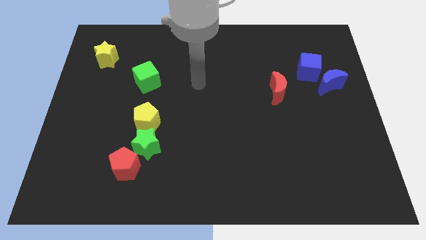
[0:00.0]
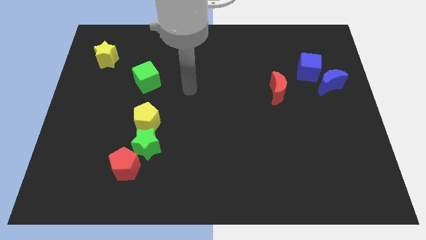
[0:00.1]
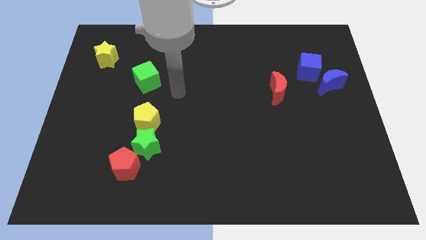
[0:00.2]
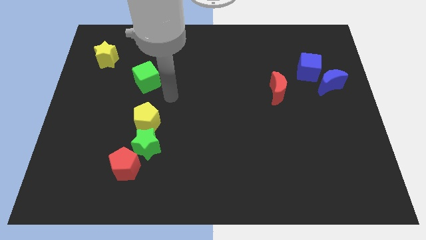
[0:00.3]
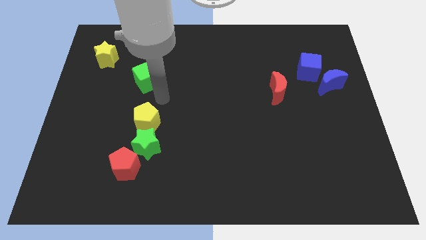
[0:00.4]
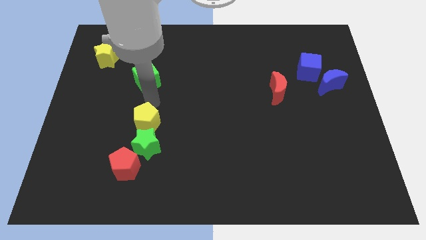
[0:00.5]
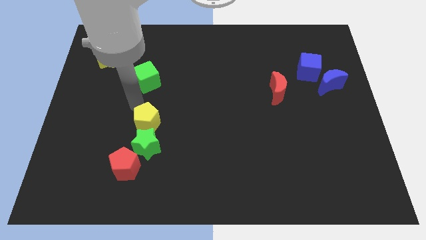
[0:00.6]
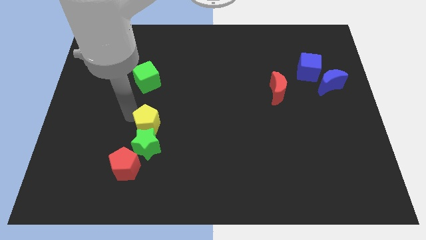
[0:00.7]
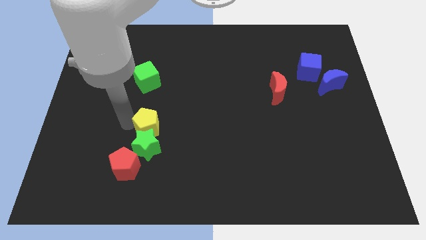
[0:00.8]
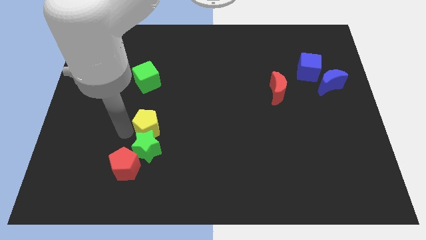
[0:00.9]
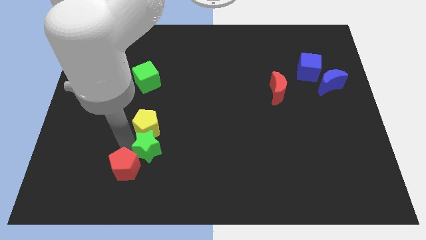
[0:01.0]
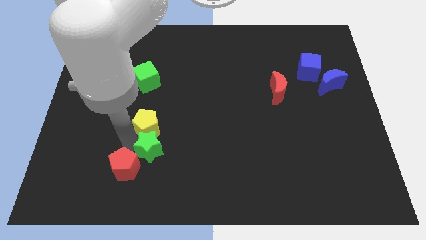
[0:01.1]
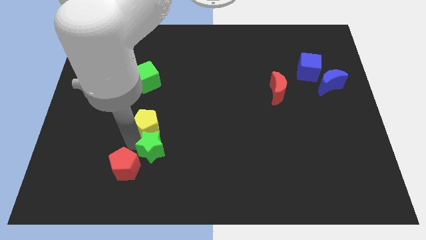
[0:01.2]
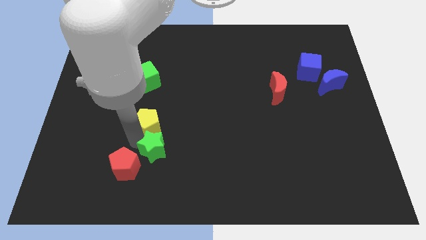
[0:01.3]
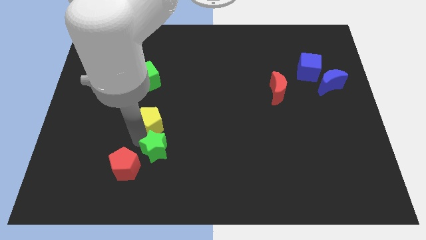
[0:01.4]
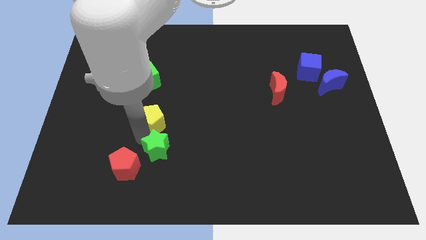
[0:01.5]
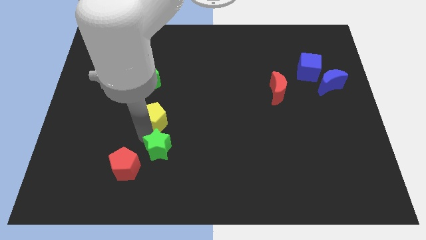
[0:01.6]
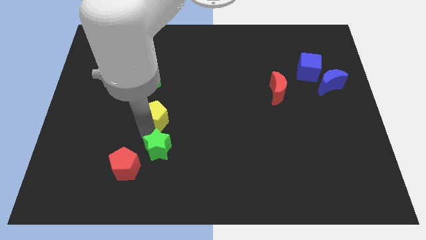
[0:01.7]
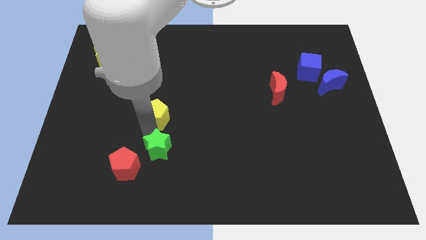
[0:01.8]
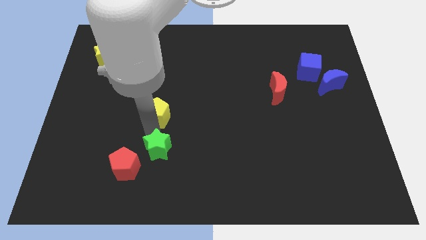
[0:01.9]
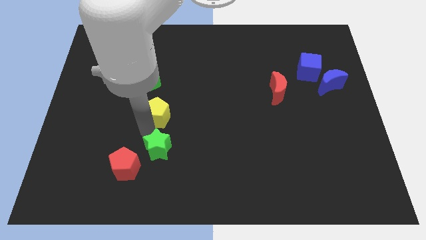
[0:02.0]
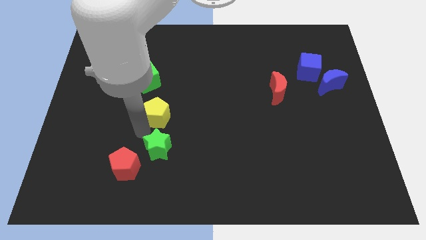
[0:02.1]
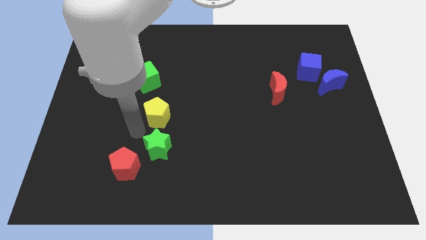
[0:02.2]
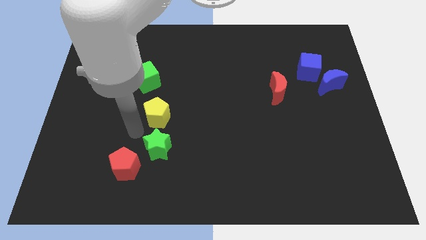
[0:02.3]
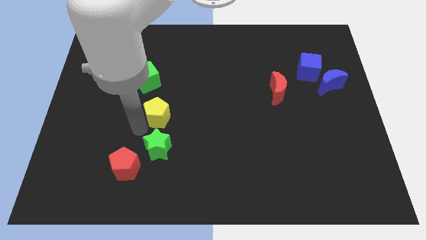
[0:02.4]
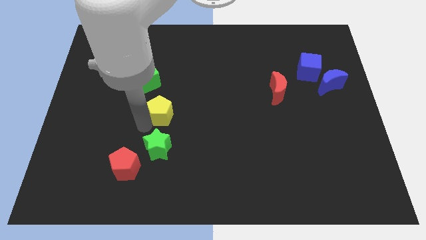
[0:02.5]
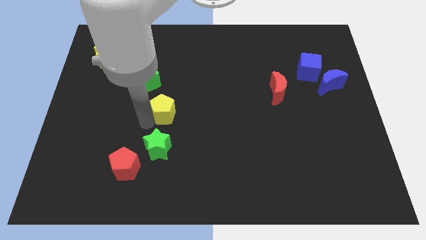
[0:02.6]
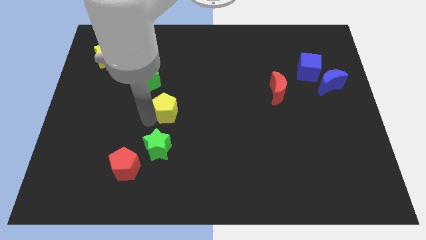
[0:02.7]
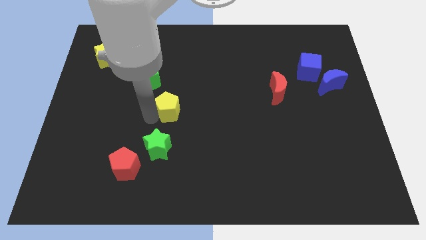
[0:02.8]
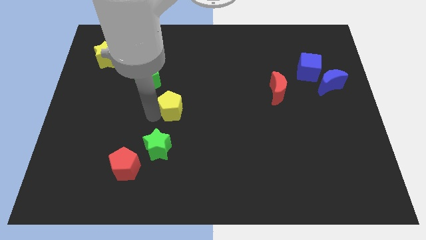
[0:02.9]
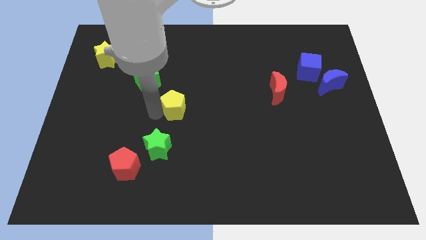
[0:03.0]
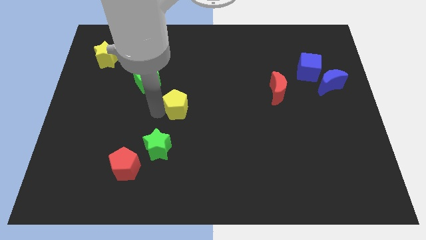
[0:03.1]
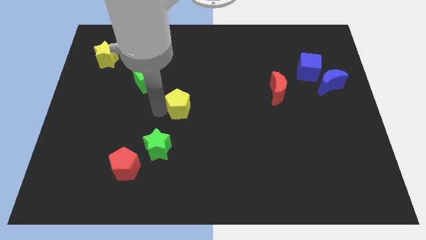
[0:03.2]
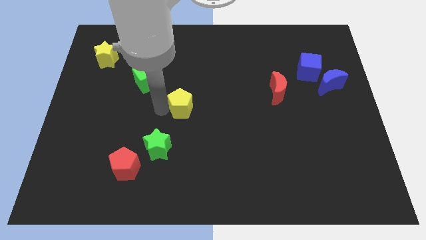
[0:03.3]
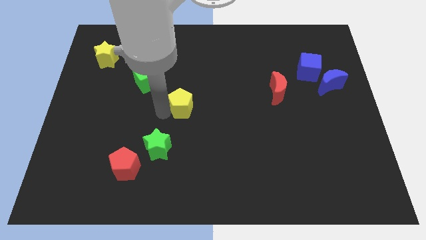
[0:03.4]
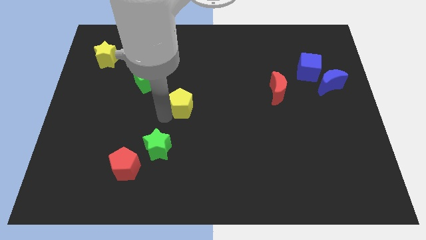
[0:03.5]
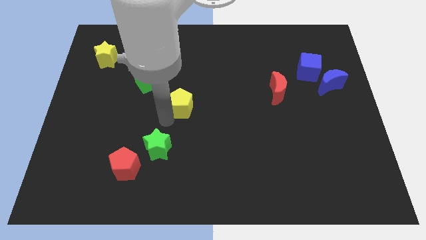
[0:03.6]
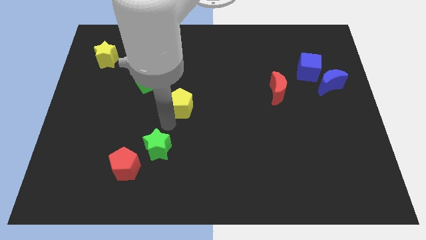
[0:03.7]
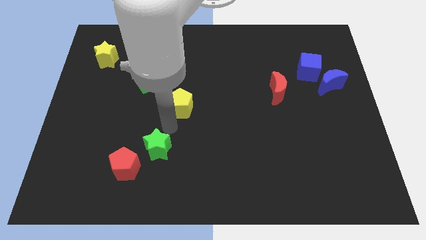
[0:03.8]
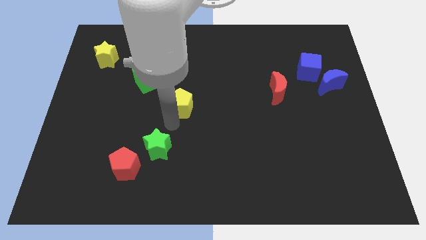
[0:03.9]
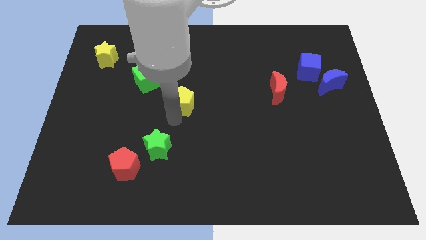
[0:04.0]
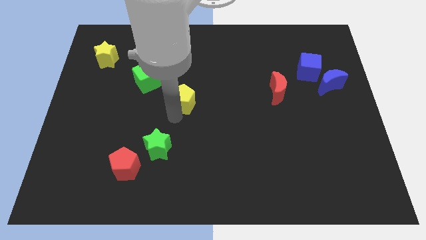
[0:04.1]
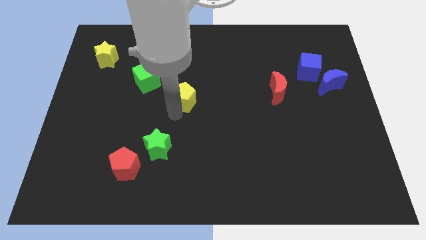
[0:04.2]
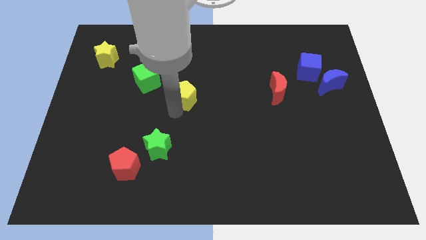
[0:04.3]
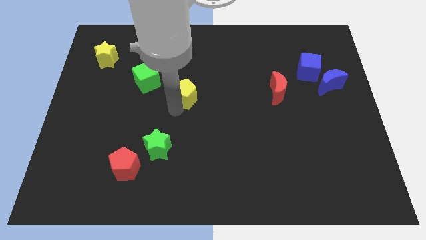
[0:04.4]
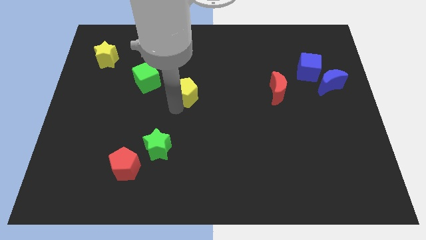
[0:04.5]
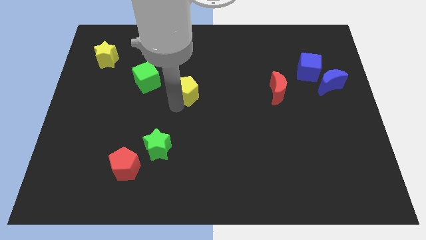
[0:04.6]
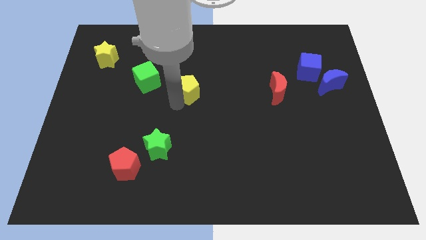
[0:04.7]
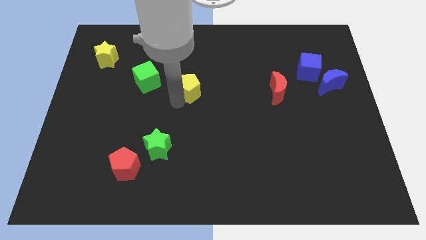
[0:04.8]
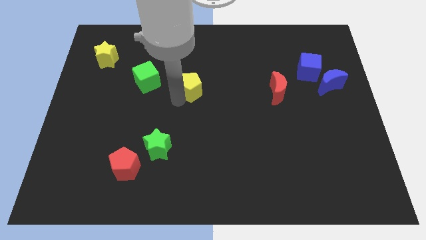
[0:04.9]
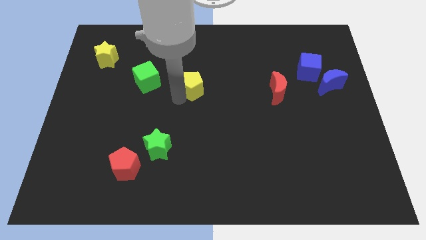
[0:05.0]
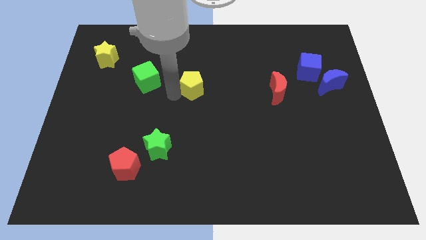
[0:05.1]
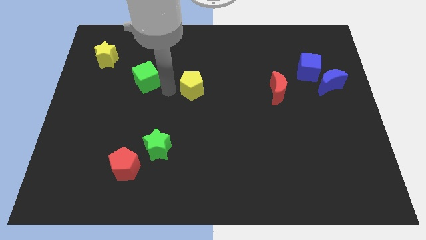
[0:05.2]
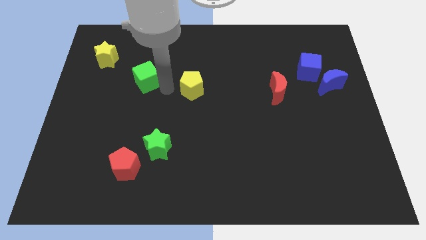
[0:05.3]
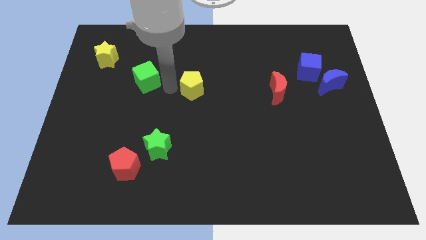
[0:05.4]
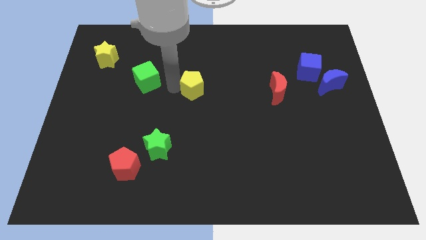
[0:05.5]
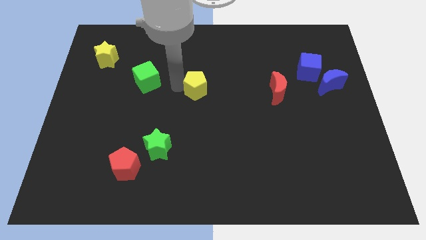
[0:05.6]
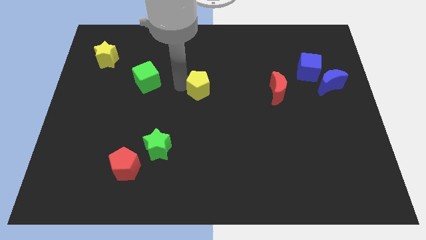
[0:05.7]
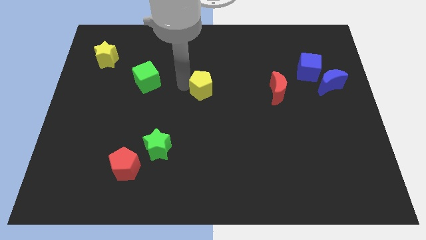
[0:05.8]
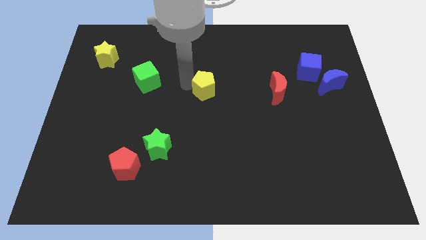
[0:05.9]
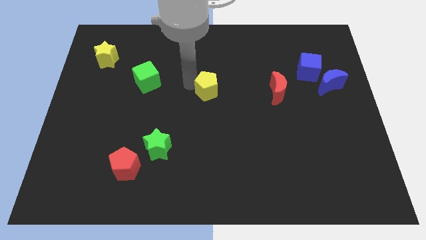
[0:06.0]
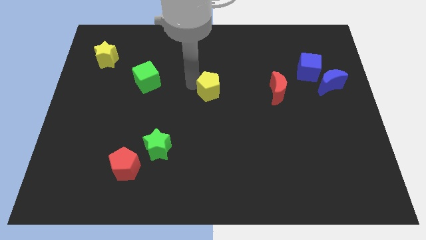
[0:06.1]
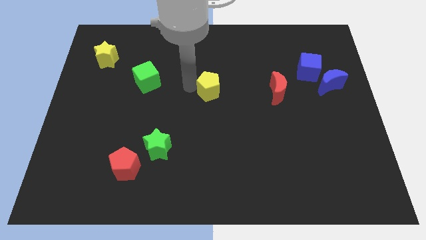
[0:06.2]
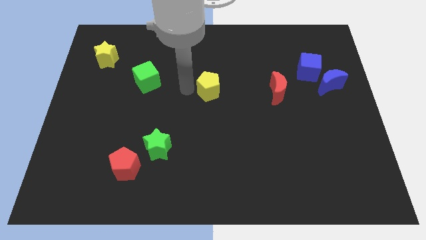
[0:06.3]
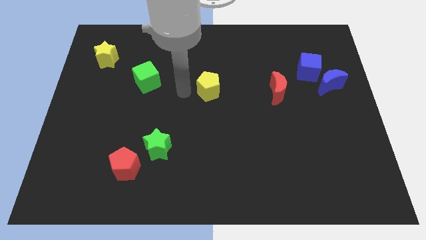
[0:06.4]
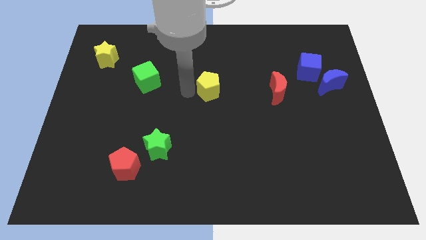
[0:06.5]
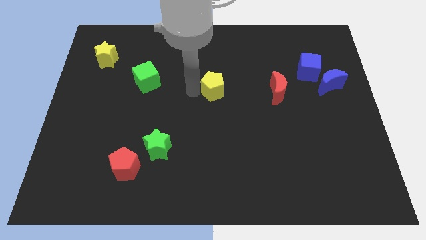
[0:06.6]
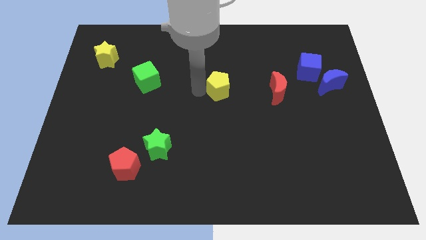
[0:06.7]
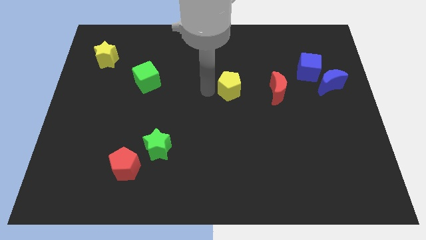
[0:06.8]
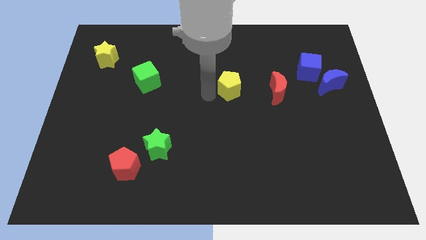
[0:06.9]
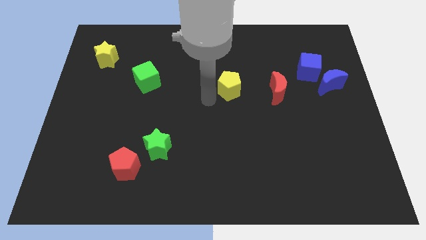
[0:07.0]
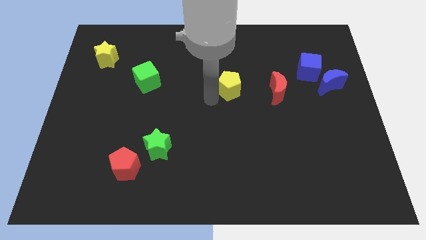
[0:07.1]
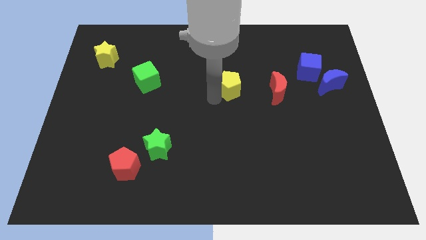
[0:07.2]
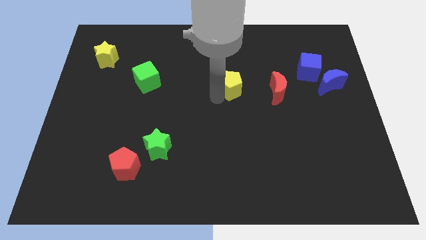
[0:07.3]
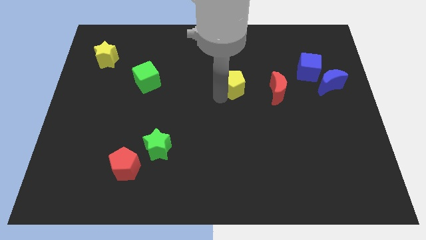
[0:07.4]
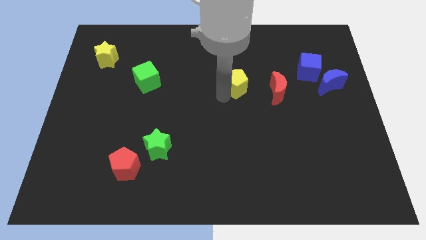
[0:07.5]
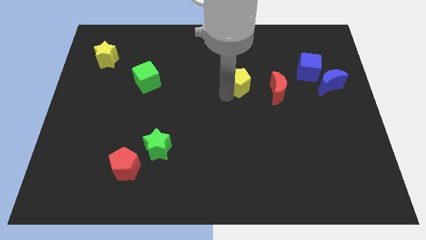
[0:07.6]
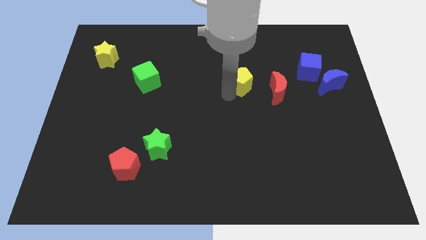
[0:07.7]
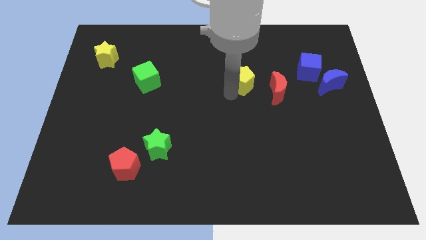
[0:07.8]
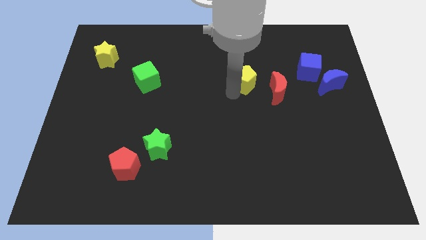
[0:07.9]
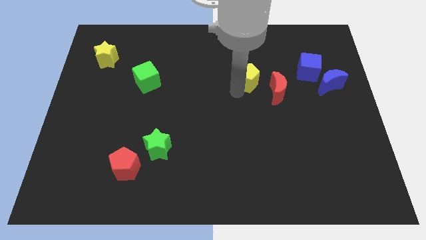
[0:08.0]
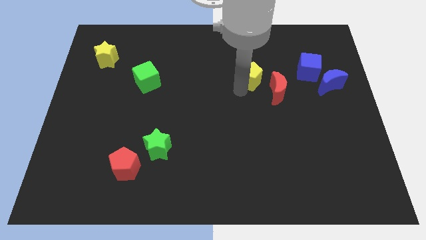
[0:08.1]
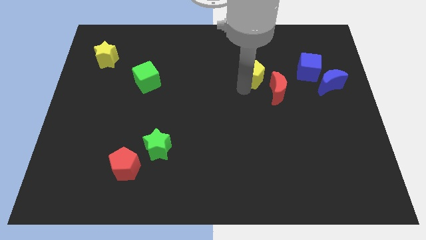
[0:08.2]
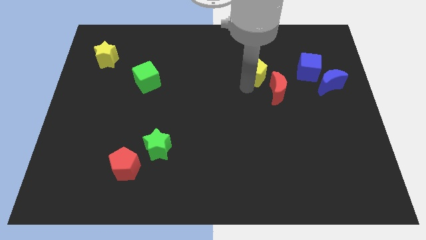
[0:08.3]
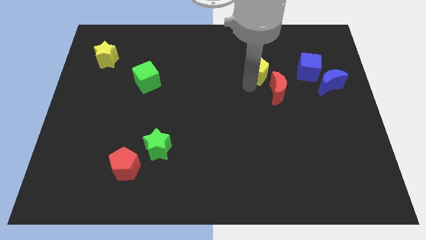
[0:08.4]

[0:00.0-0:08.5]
slide the yellow pentagon above the red moon
